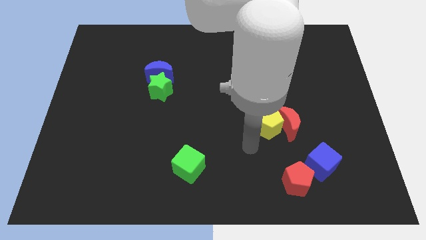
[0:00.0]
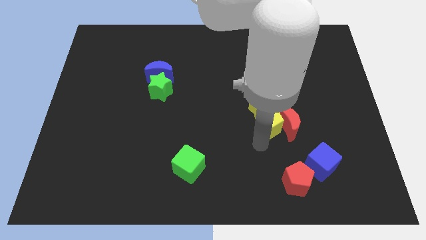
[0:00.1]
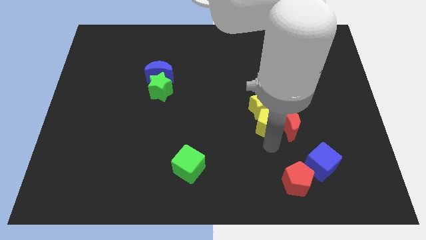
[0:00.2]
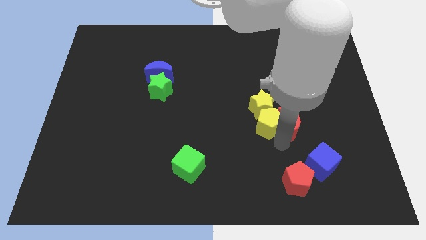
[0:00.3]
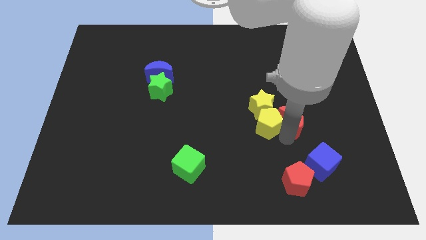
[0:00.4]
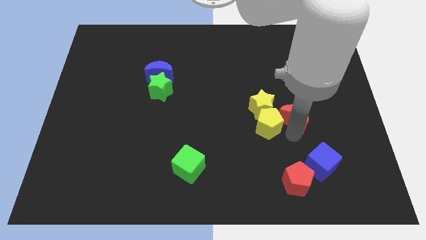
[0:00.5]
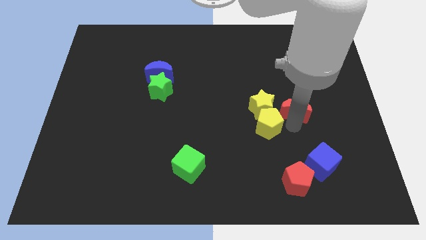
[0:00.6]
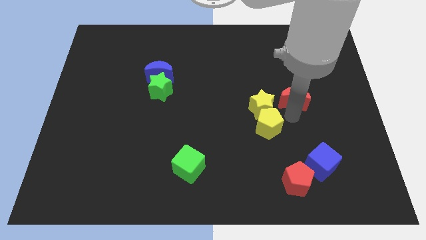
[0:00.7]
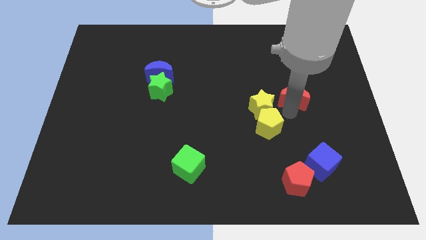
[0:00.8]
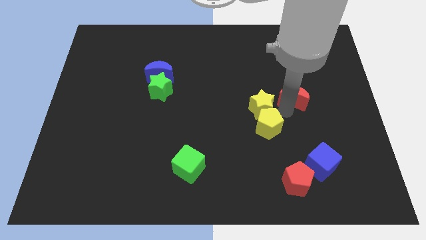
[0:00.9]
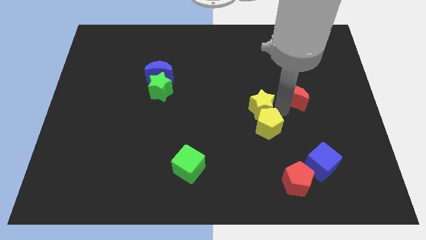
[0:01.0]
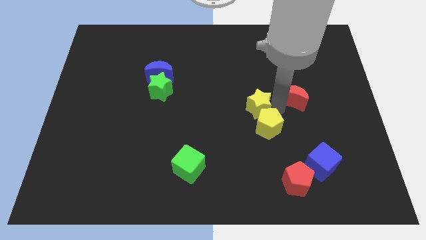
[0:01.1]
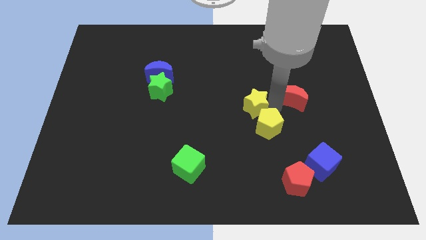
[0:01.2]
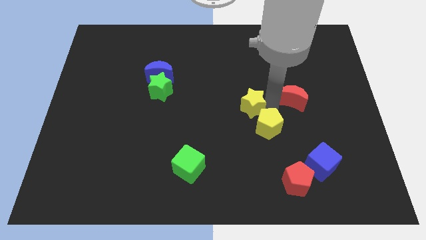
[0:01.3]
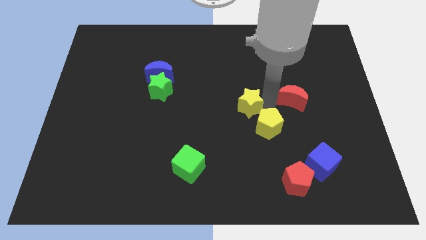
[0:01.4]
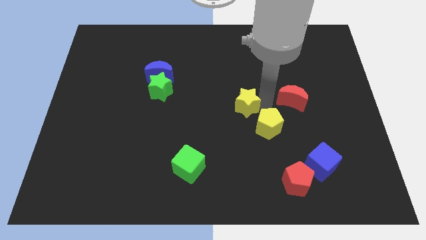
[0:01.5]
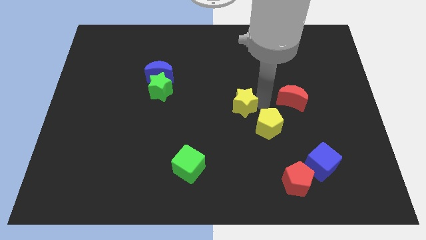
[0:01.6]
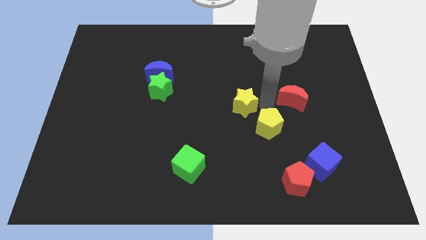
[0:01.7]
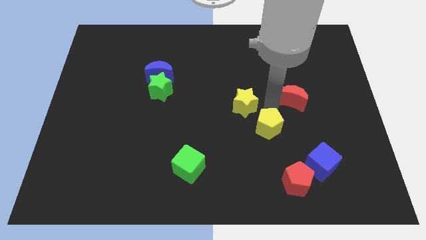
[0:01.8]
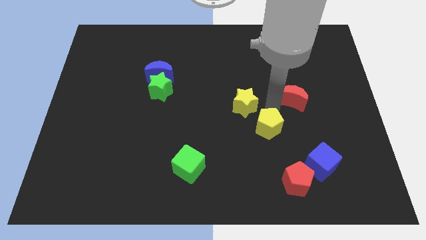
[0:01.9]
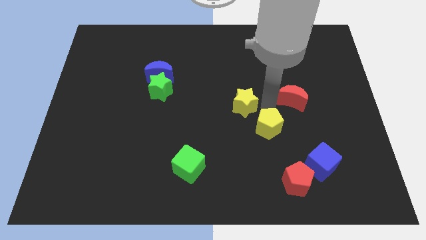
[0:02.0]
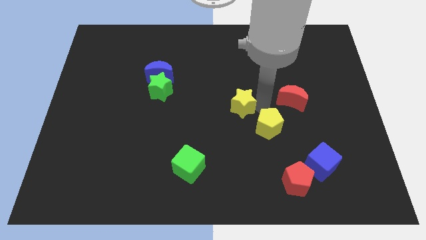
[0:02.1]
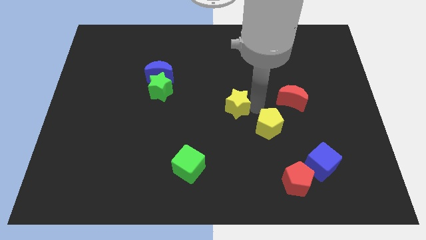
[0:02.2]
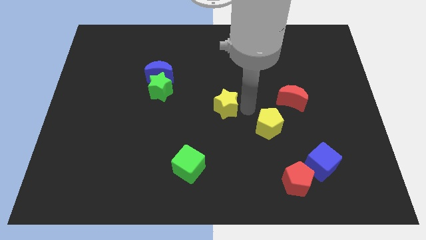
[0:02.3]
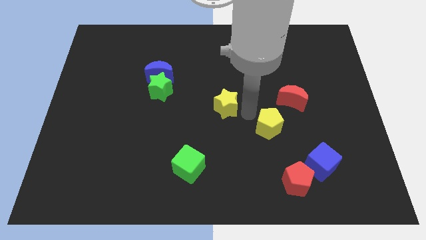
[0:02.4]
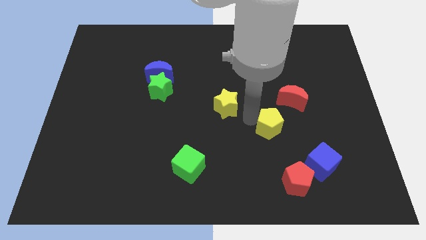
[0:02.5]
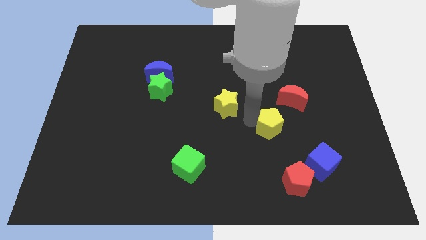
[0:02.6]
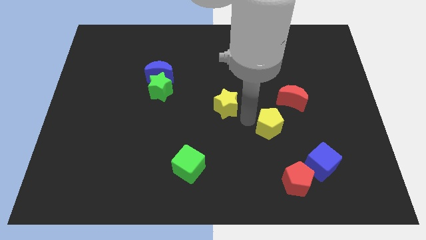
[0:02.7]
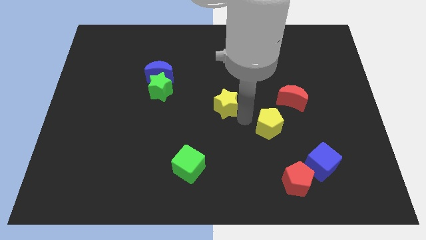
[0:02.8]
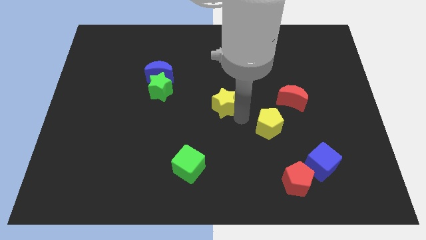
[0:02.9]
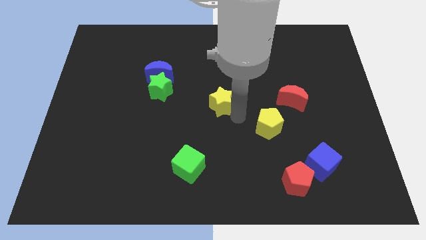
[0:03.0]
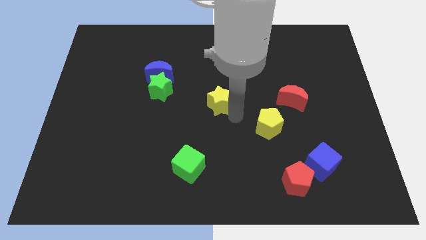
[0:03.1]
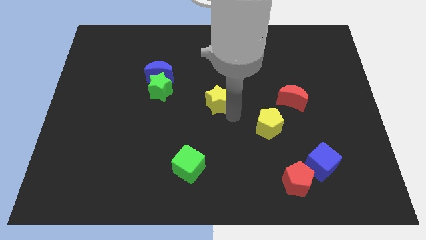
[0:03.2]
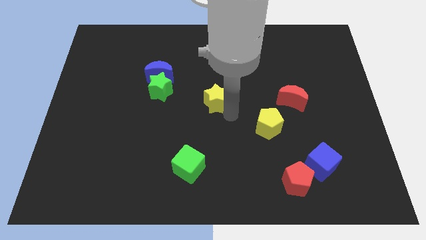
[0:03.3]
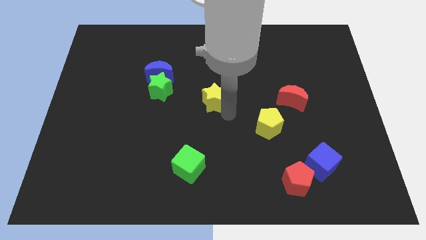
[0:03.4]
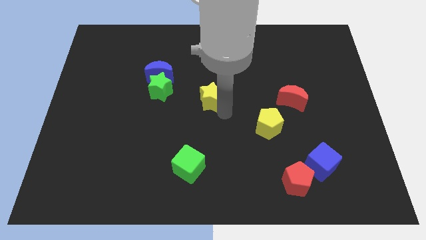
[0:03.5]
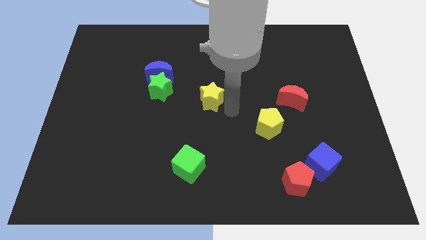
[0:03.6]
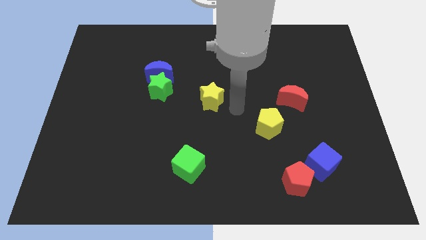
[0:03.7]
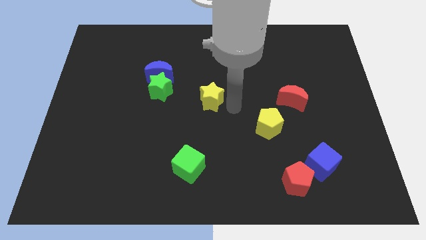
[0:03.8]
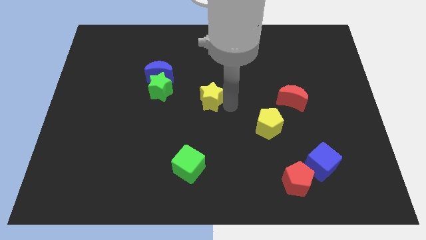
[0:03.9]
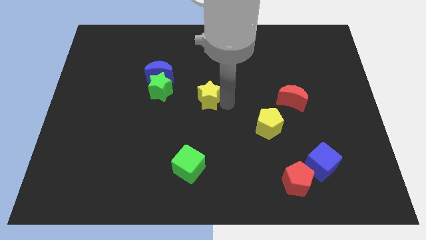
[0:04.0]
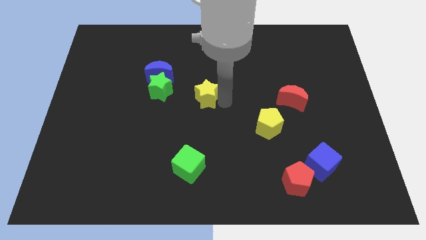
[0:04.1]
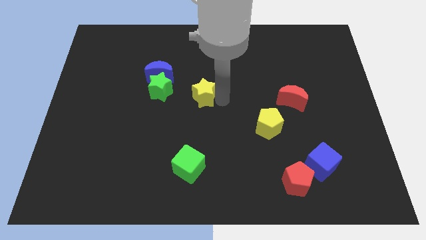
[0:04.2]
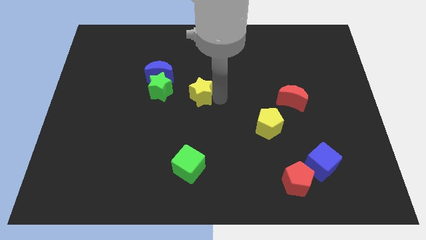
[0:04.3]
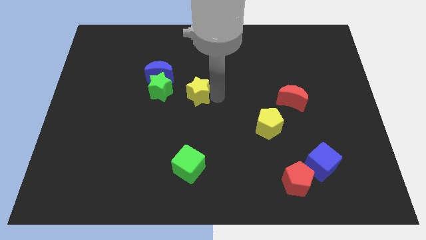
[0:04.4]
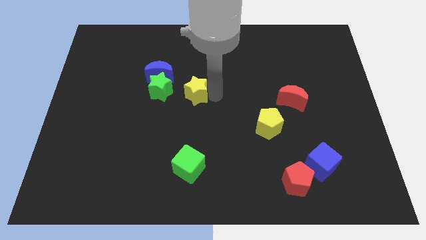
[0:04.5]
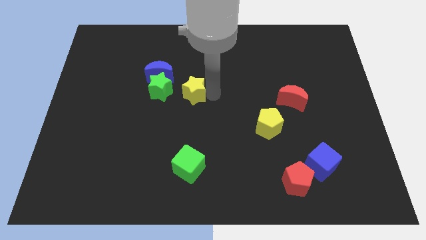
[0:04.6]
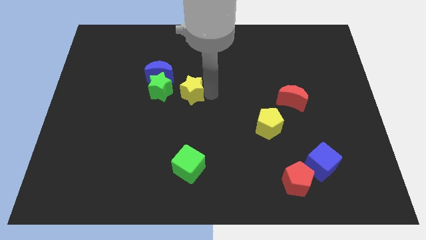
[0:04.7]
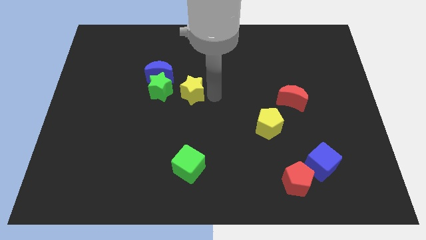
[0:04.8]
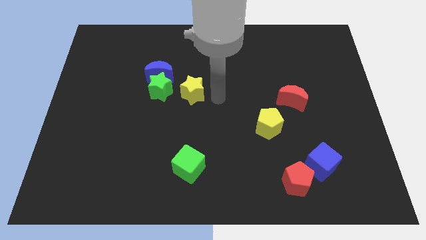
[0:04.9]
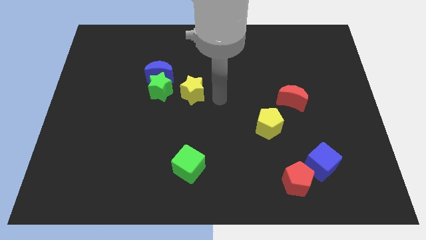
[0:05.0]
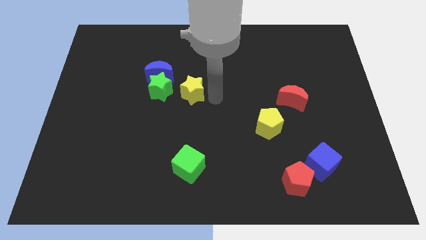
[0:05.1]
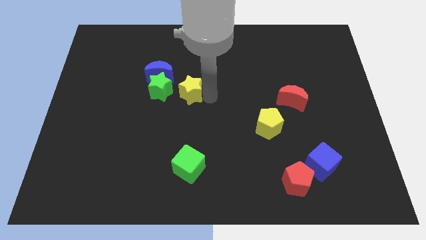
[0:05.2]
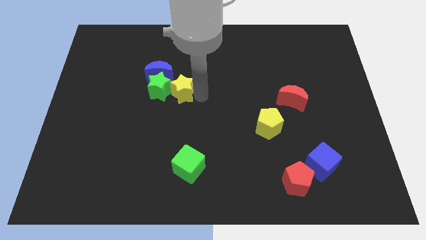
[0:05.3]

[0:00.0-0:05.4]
slide the yellow star towards the green star

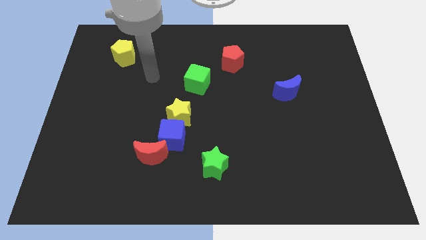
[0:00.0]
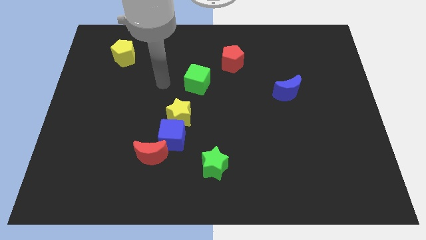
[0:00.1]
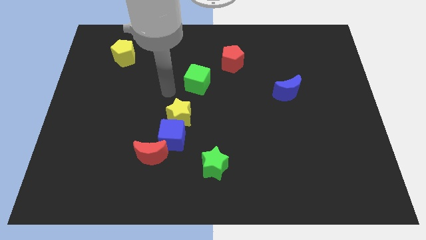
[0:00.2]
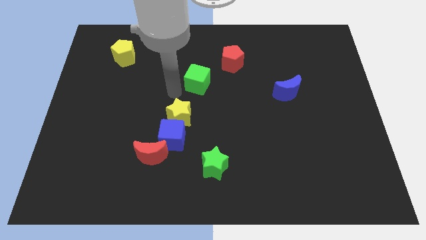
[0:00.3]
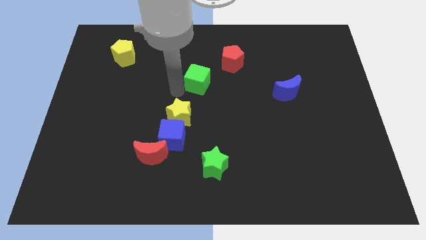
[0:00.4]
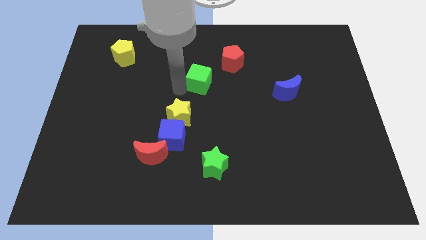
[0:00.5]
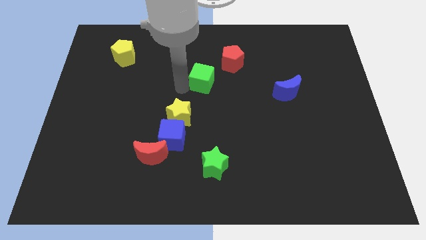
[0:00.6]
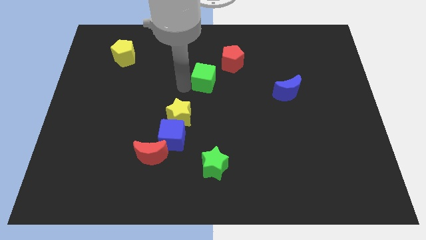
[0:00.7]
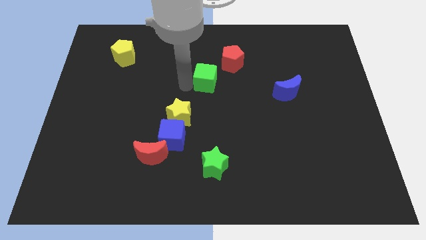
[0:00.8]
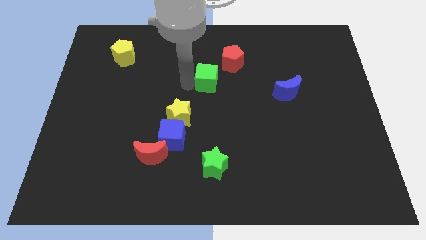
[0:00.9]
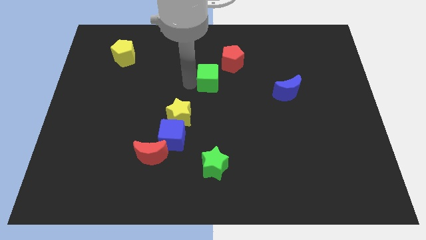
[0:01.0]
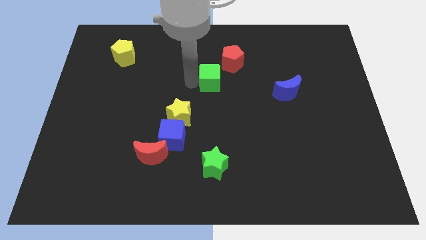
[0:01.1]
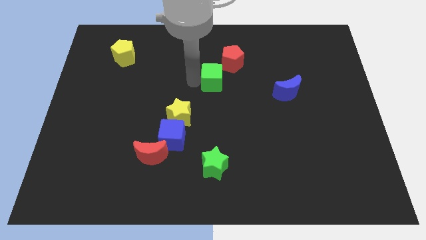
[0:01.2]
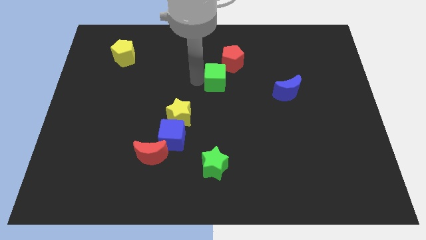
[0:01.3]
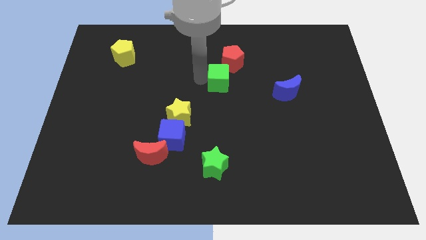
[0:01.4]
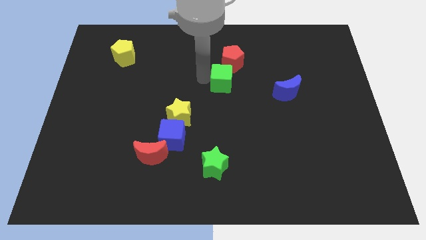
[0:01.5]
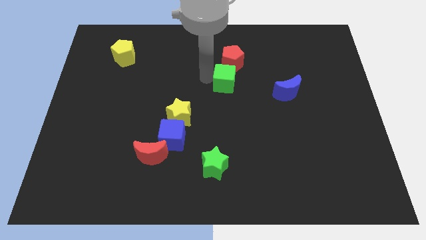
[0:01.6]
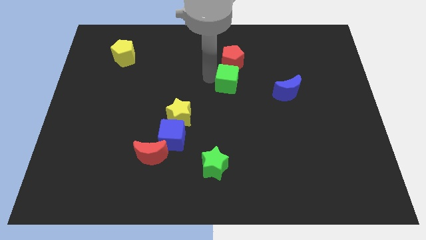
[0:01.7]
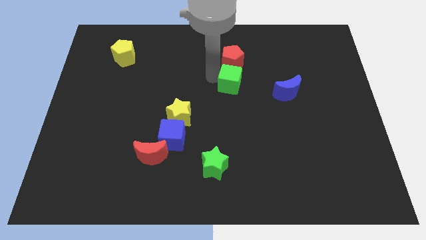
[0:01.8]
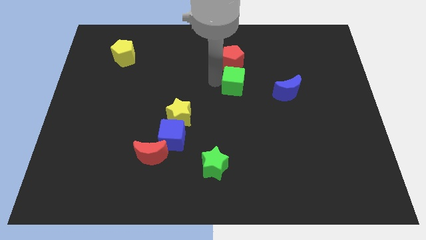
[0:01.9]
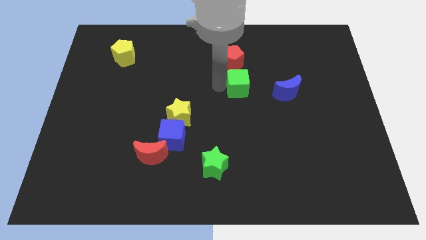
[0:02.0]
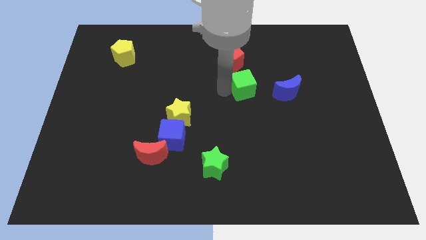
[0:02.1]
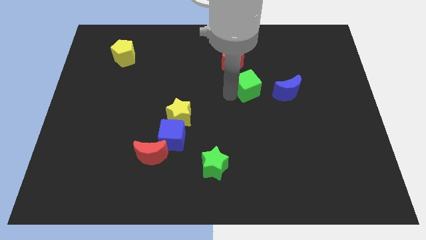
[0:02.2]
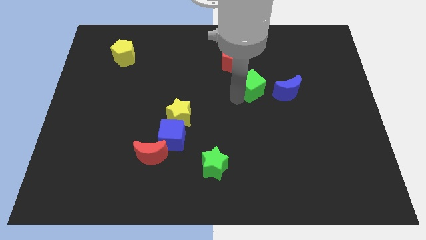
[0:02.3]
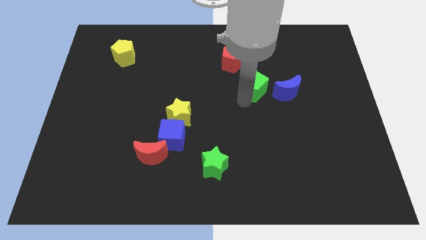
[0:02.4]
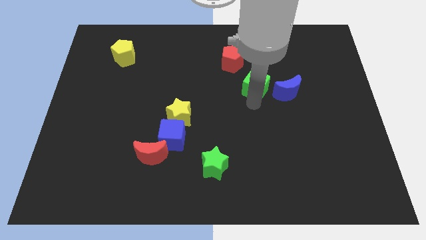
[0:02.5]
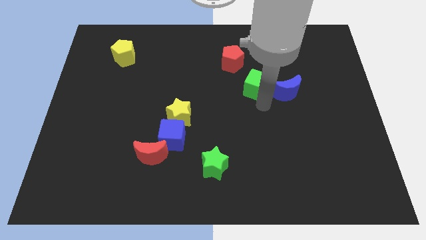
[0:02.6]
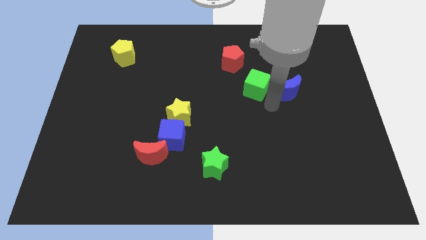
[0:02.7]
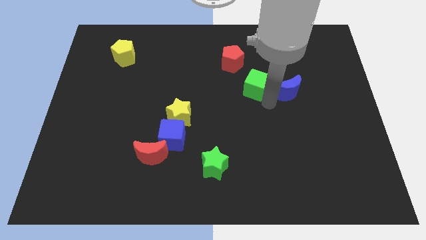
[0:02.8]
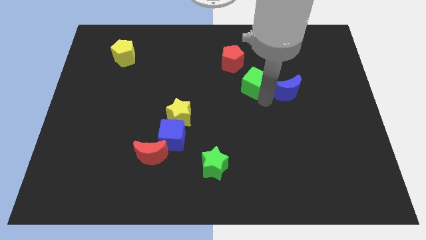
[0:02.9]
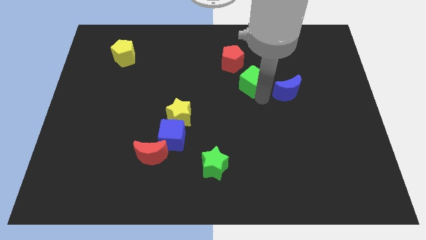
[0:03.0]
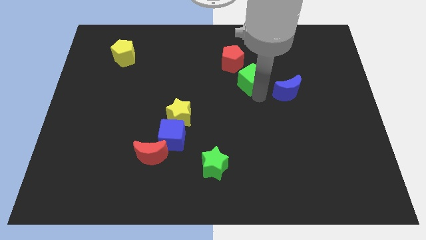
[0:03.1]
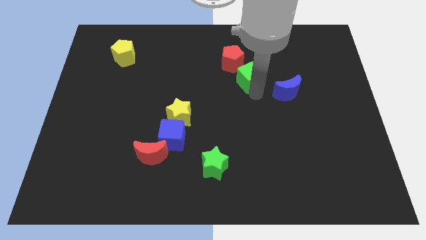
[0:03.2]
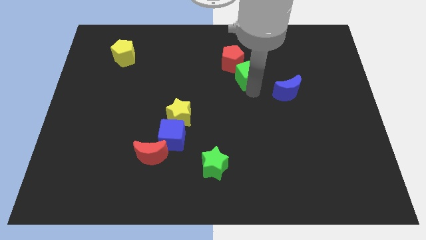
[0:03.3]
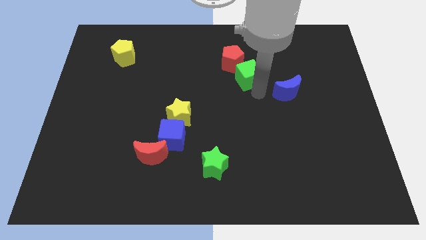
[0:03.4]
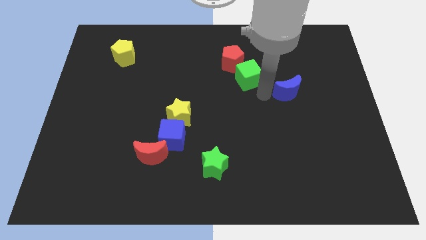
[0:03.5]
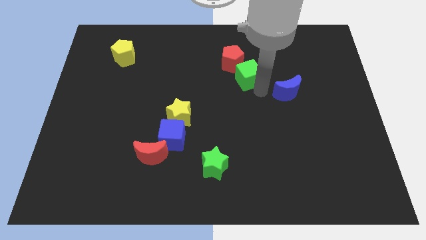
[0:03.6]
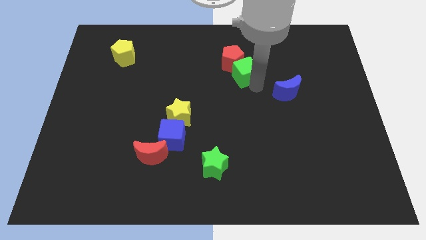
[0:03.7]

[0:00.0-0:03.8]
push the green cube next to the red pentagon
